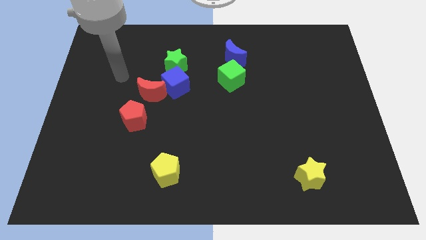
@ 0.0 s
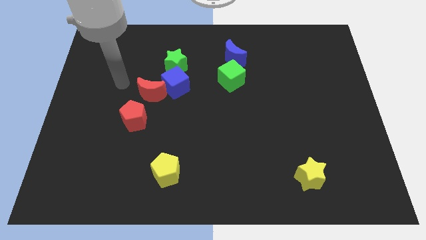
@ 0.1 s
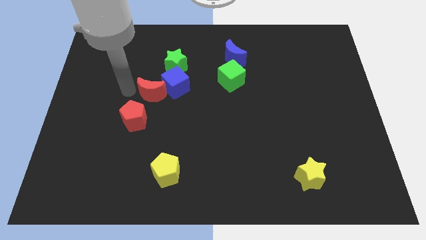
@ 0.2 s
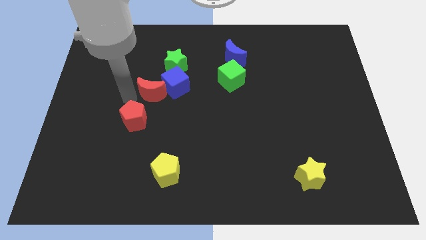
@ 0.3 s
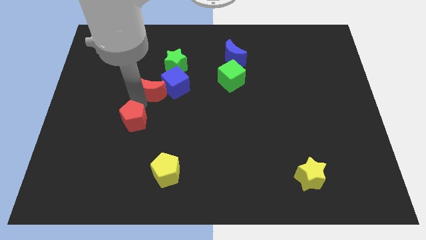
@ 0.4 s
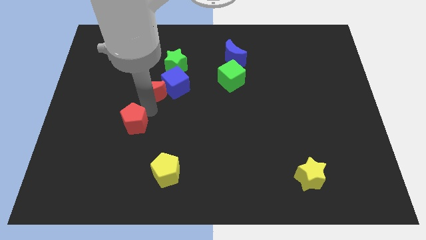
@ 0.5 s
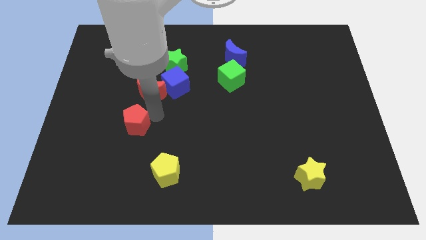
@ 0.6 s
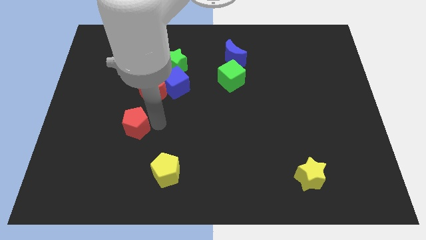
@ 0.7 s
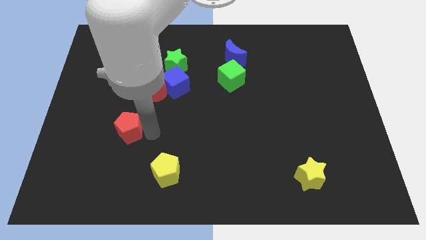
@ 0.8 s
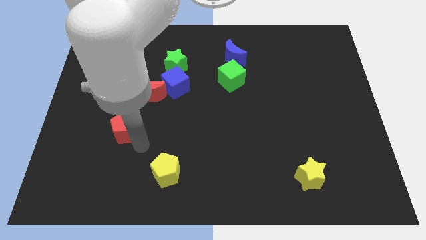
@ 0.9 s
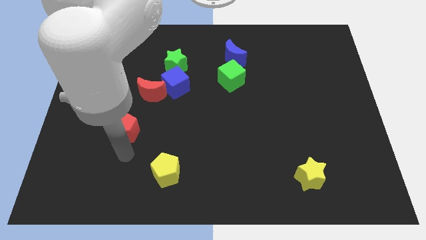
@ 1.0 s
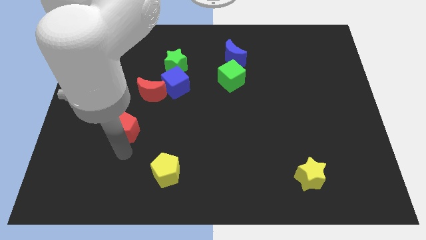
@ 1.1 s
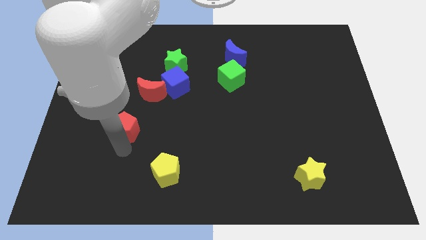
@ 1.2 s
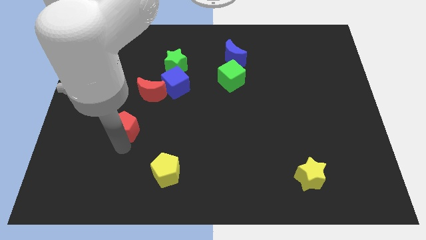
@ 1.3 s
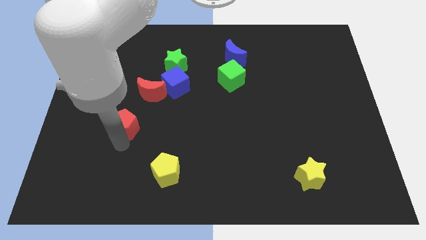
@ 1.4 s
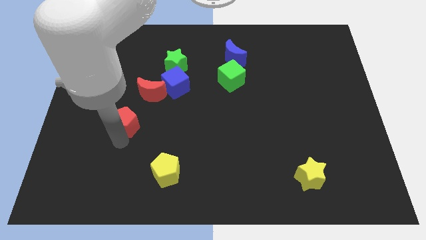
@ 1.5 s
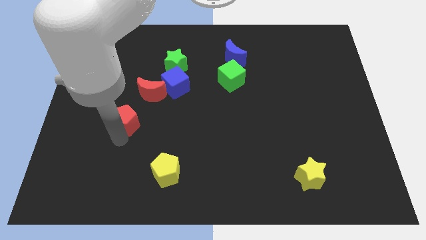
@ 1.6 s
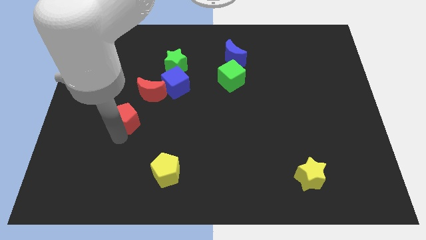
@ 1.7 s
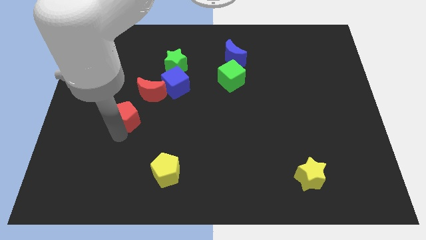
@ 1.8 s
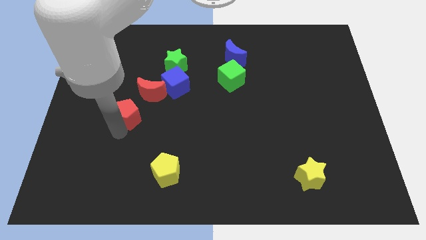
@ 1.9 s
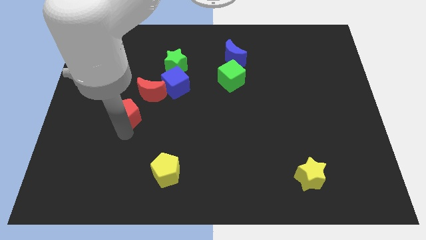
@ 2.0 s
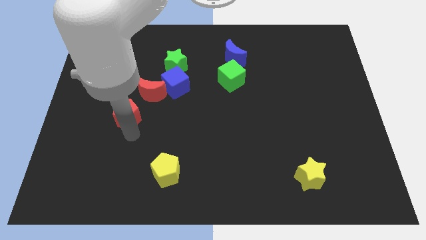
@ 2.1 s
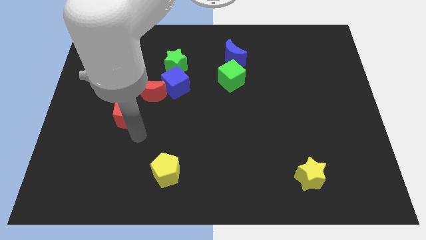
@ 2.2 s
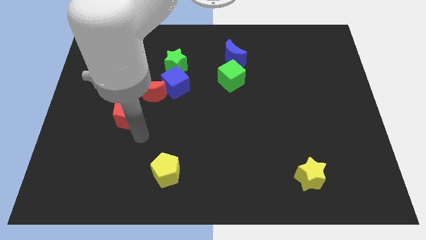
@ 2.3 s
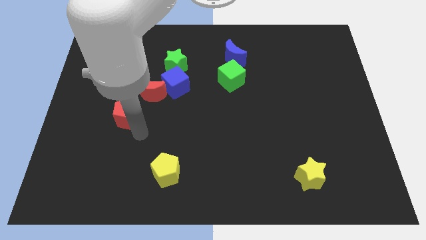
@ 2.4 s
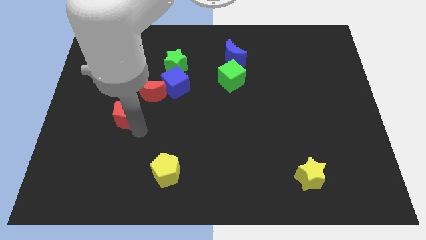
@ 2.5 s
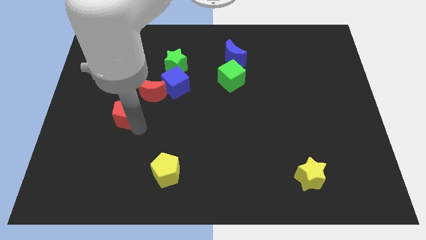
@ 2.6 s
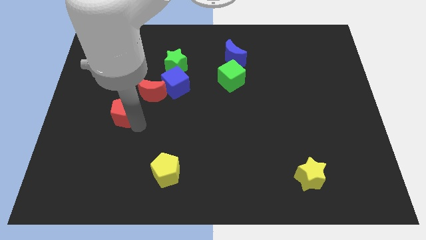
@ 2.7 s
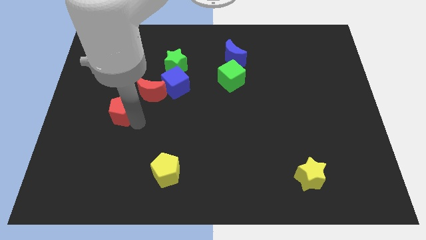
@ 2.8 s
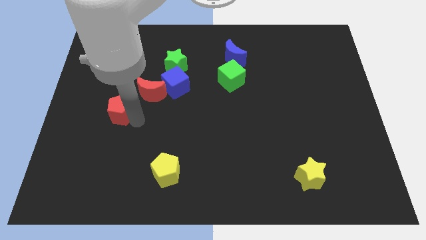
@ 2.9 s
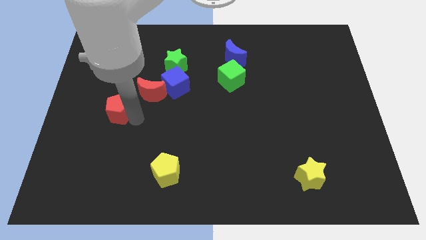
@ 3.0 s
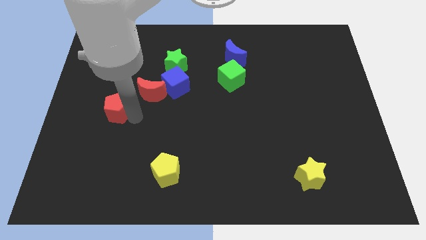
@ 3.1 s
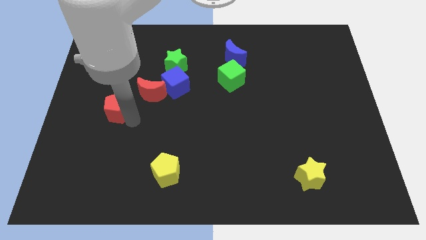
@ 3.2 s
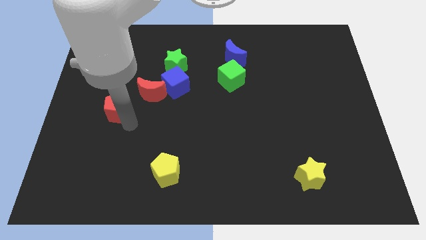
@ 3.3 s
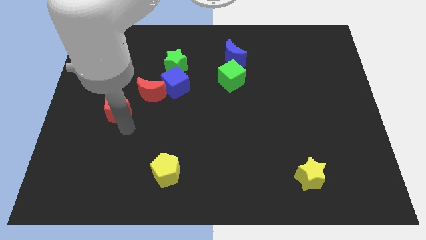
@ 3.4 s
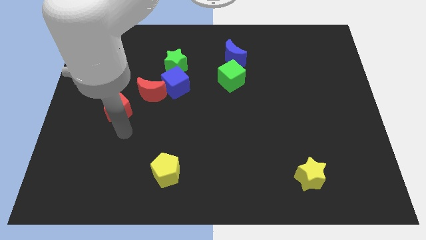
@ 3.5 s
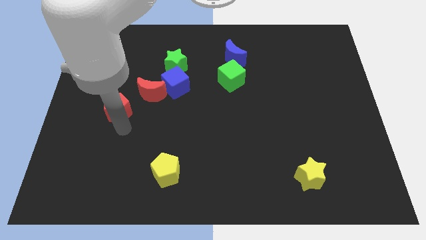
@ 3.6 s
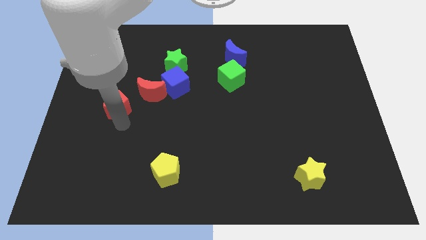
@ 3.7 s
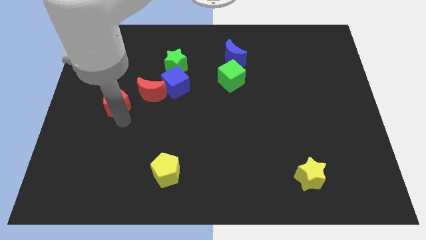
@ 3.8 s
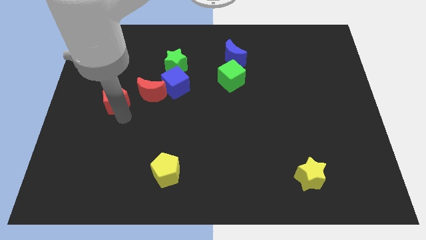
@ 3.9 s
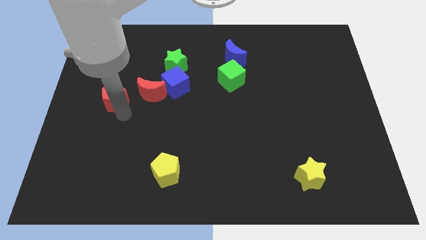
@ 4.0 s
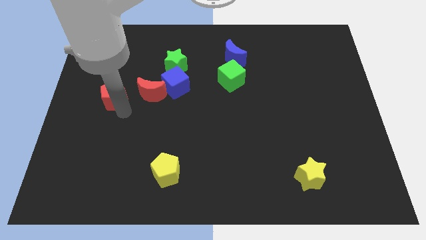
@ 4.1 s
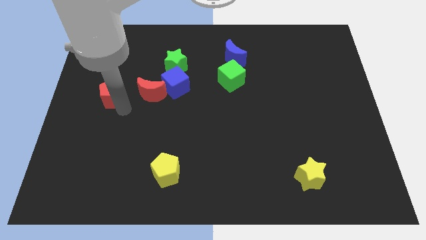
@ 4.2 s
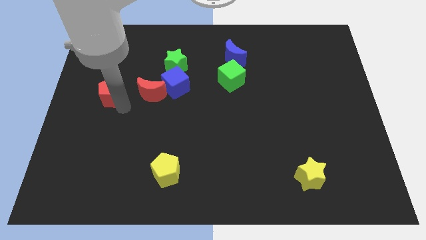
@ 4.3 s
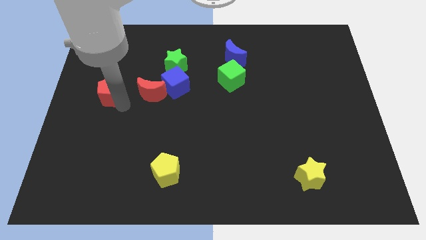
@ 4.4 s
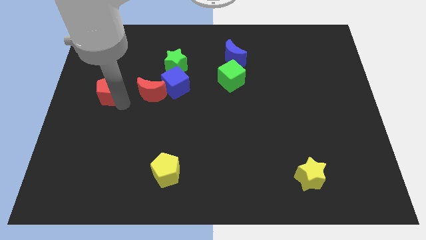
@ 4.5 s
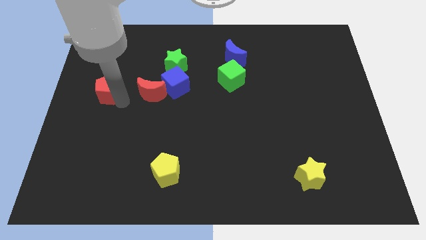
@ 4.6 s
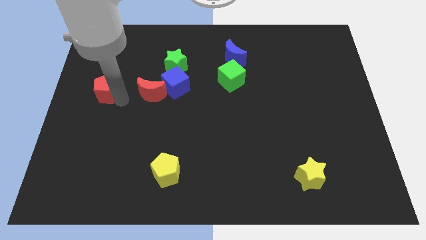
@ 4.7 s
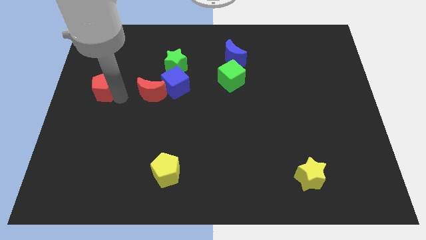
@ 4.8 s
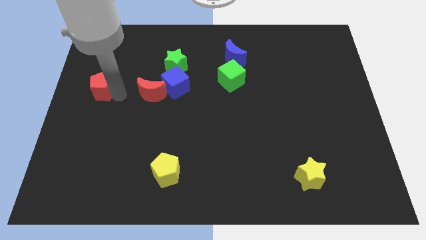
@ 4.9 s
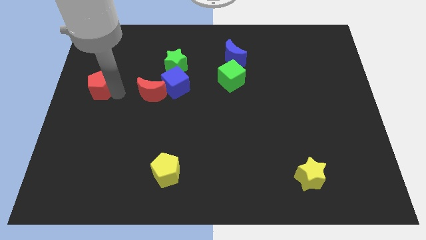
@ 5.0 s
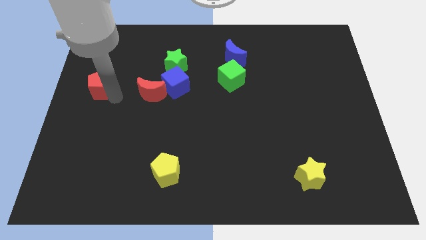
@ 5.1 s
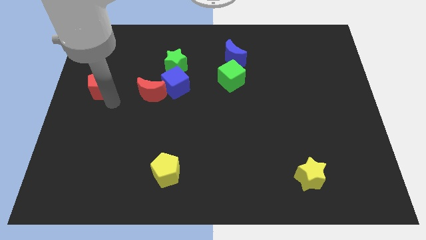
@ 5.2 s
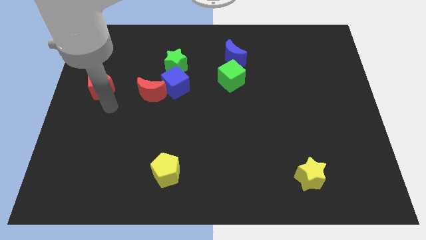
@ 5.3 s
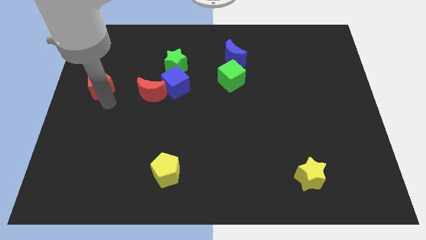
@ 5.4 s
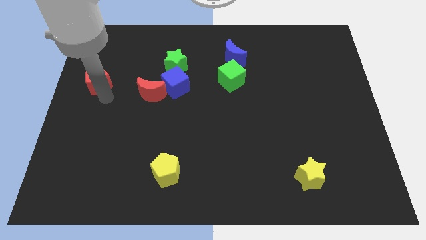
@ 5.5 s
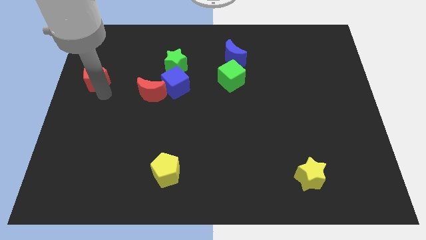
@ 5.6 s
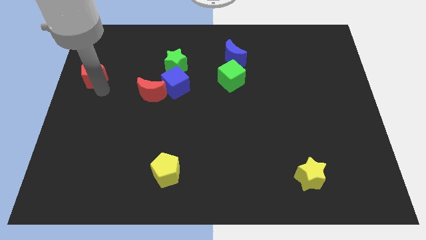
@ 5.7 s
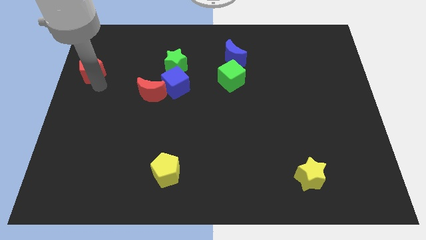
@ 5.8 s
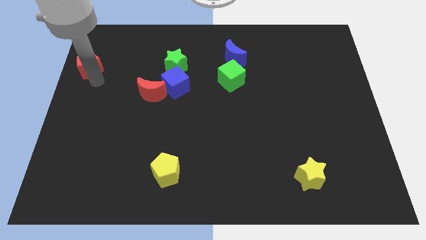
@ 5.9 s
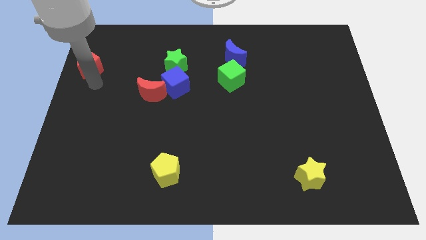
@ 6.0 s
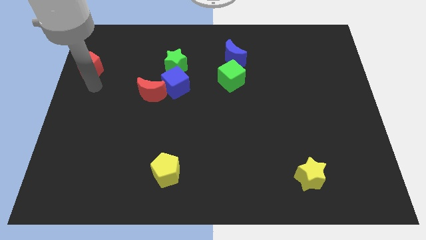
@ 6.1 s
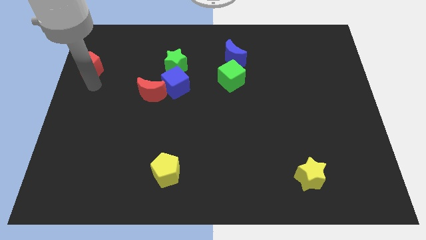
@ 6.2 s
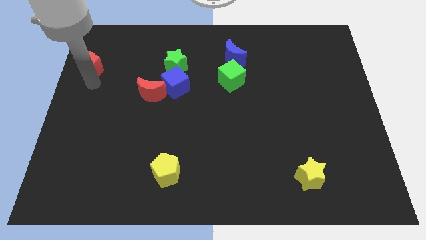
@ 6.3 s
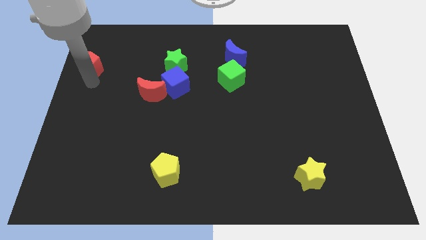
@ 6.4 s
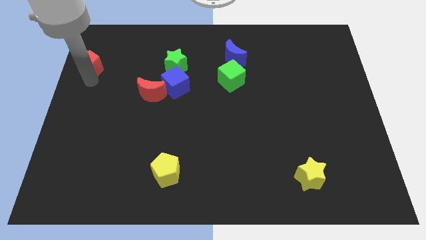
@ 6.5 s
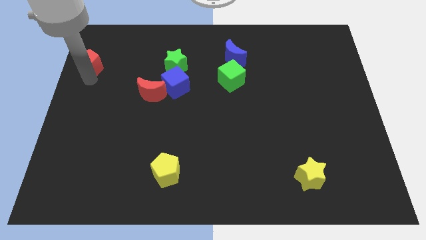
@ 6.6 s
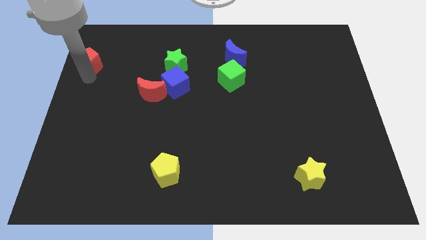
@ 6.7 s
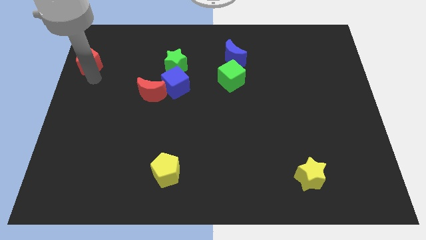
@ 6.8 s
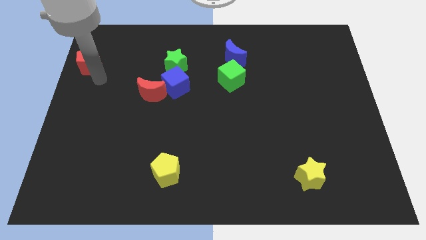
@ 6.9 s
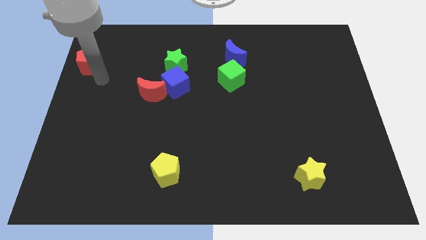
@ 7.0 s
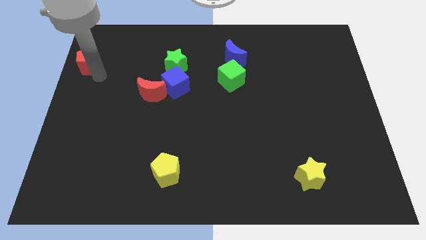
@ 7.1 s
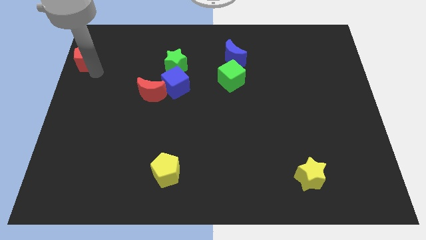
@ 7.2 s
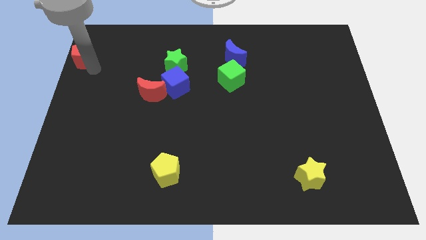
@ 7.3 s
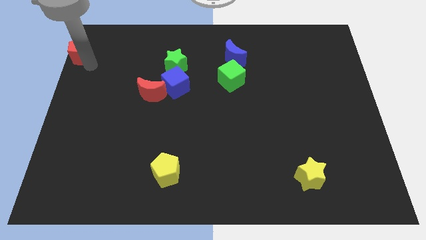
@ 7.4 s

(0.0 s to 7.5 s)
move the red pentagon to the top left of the board
